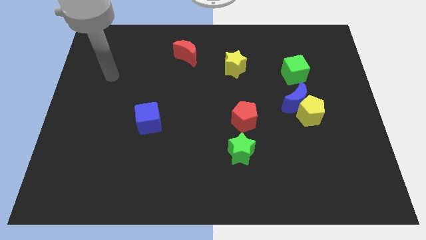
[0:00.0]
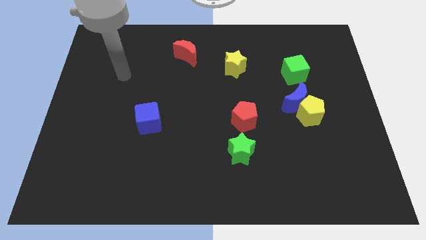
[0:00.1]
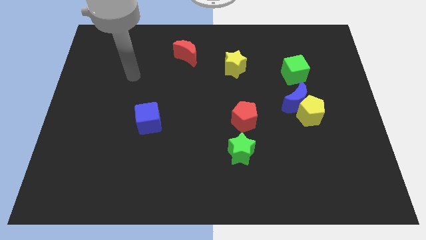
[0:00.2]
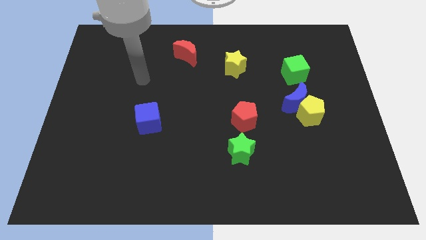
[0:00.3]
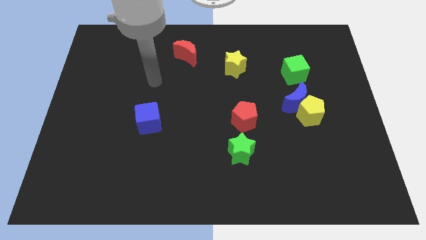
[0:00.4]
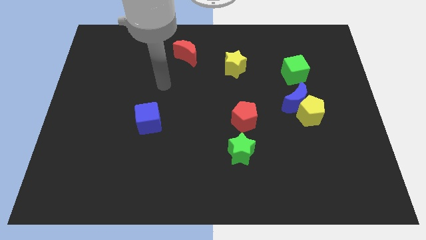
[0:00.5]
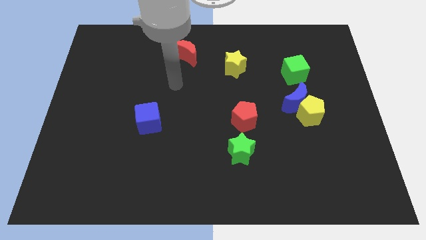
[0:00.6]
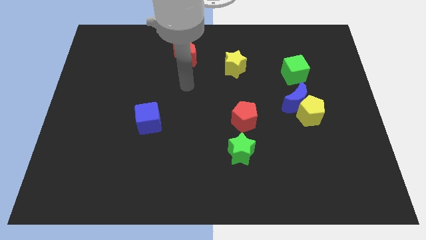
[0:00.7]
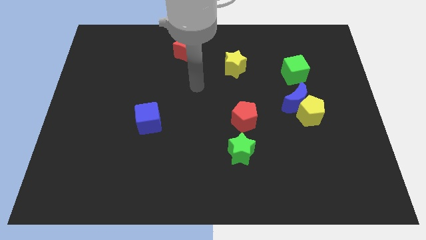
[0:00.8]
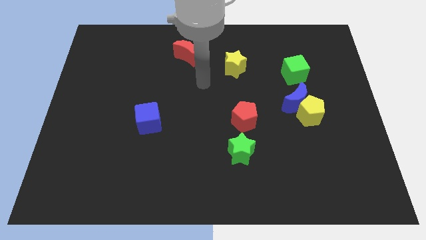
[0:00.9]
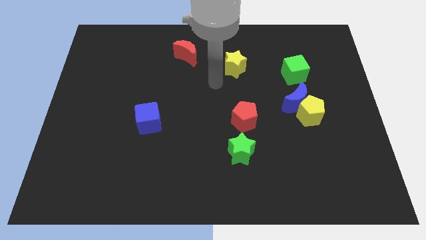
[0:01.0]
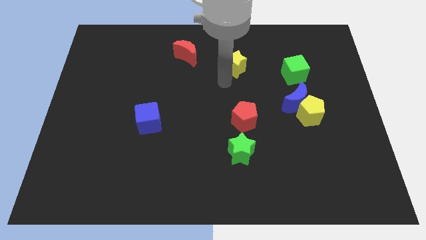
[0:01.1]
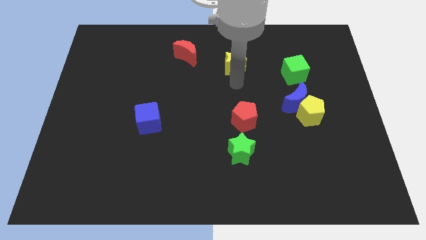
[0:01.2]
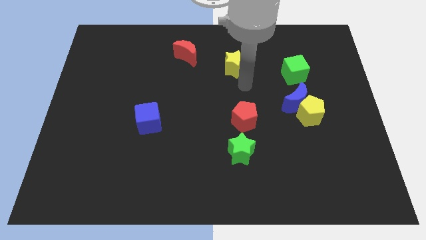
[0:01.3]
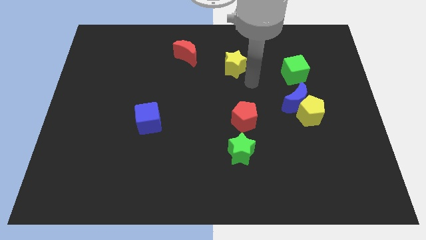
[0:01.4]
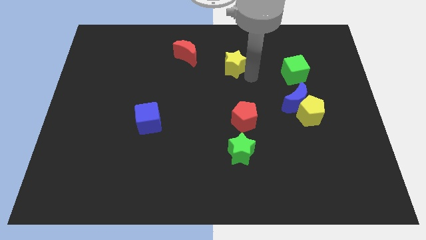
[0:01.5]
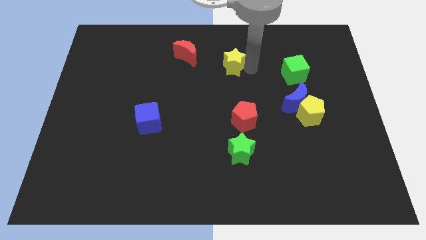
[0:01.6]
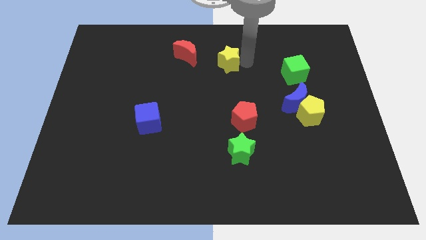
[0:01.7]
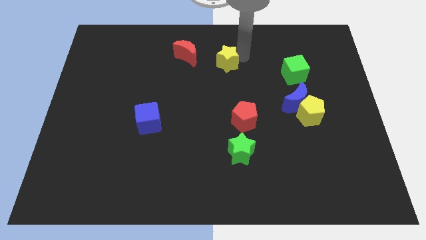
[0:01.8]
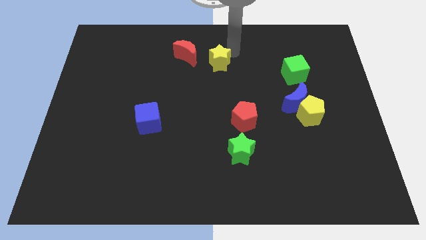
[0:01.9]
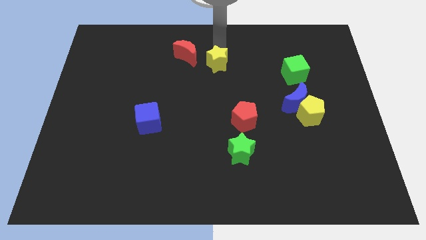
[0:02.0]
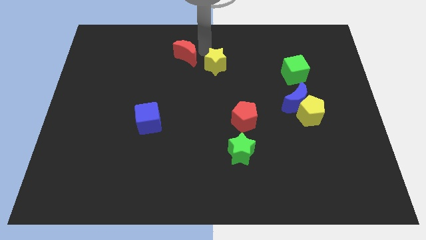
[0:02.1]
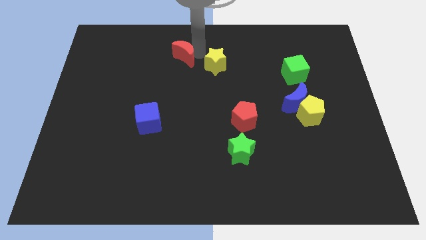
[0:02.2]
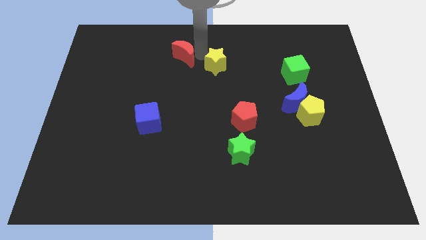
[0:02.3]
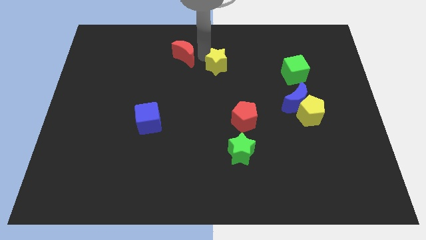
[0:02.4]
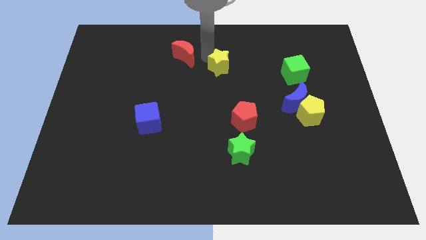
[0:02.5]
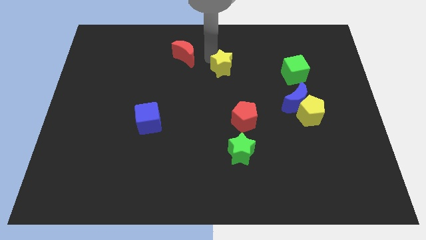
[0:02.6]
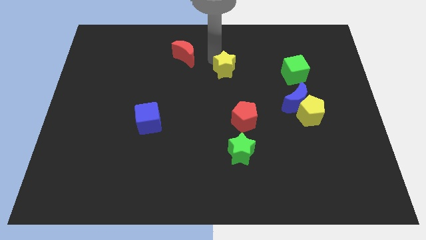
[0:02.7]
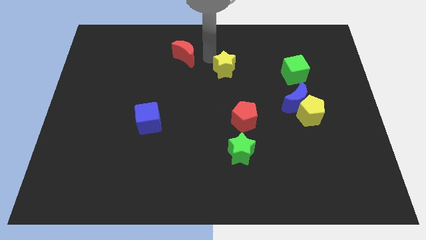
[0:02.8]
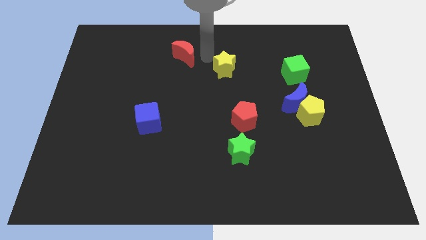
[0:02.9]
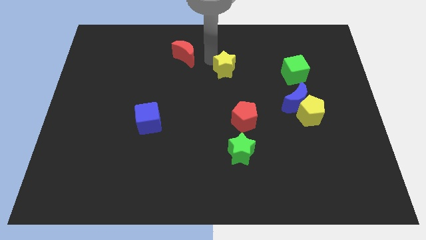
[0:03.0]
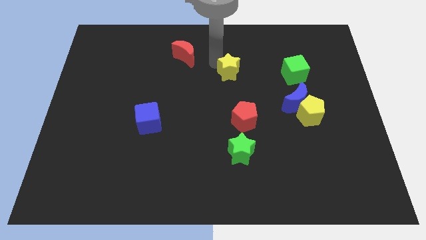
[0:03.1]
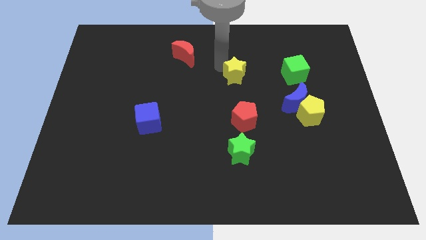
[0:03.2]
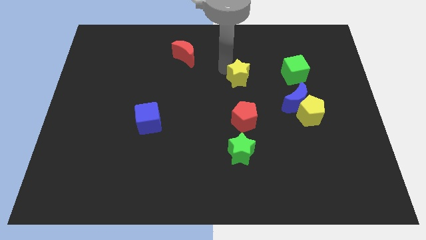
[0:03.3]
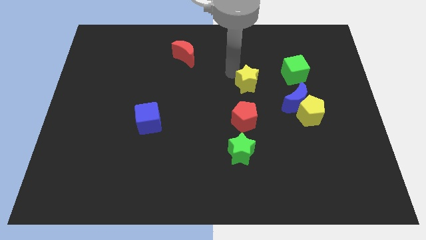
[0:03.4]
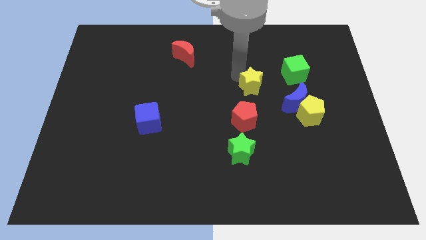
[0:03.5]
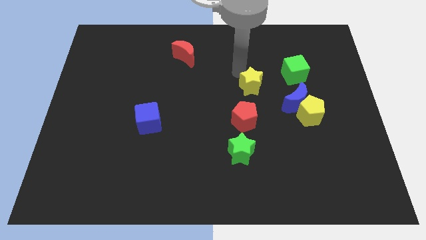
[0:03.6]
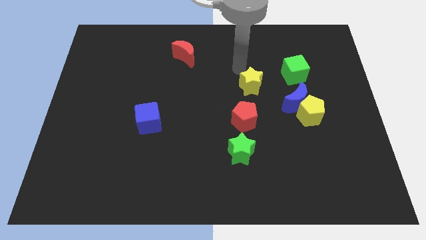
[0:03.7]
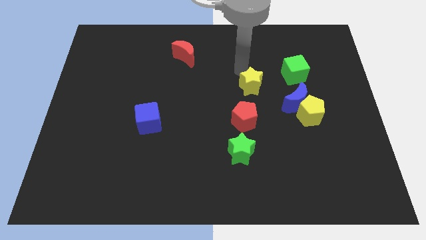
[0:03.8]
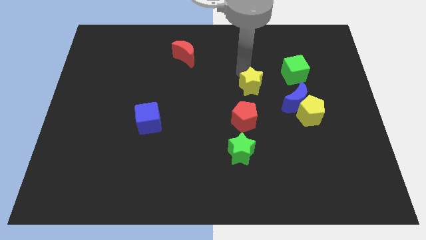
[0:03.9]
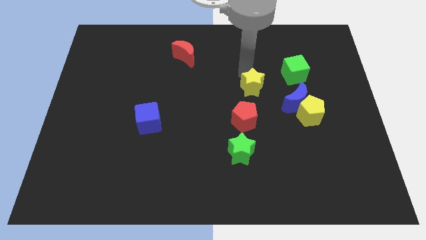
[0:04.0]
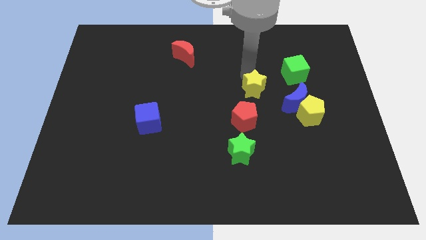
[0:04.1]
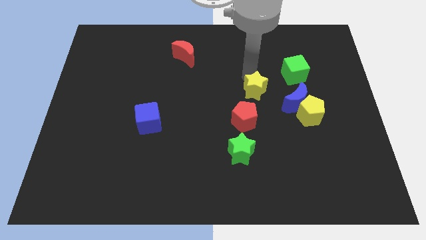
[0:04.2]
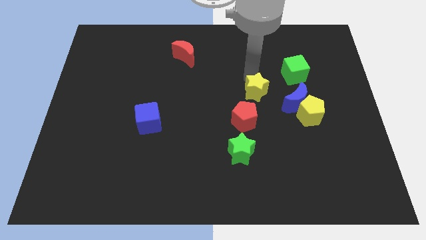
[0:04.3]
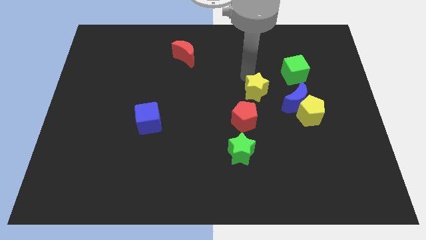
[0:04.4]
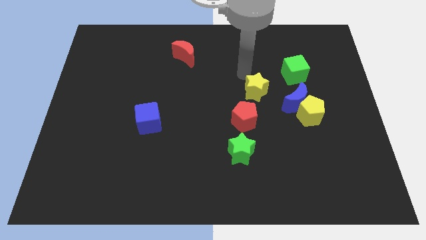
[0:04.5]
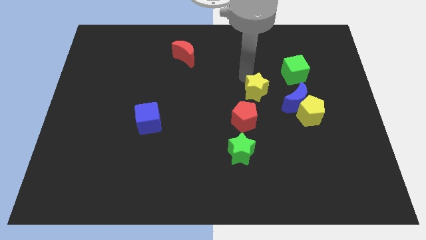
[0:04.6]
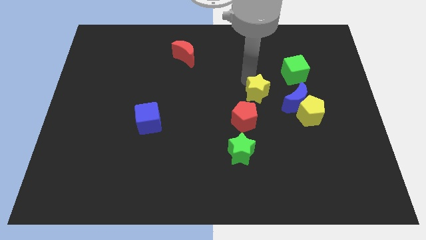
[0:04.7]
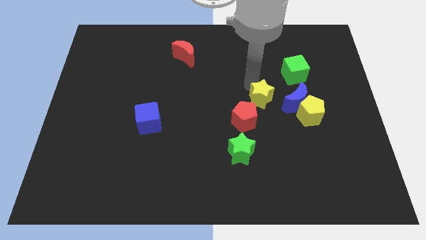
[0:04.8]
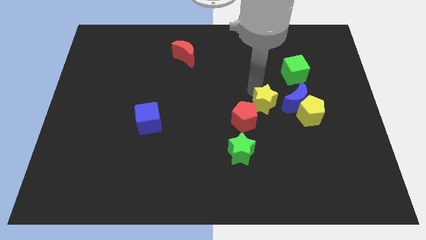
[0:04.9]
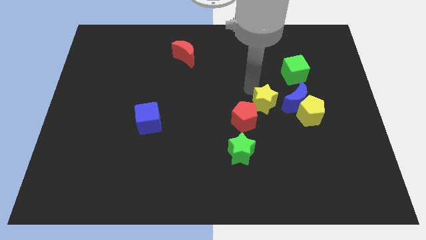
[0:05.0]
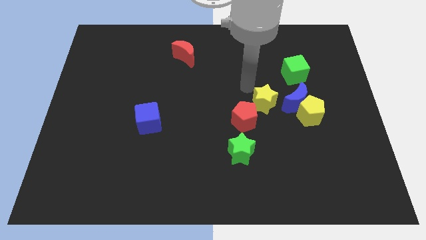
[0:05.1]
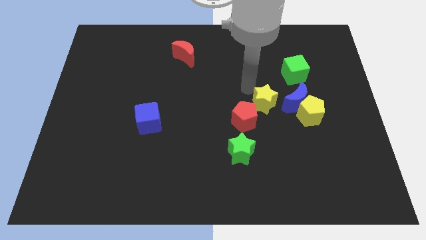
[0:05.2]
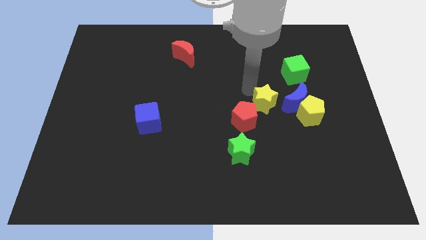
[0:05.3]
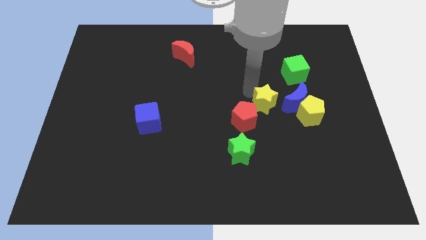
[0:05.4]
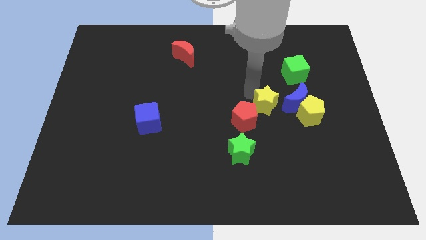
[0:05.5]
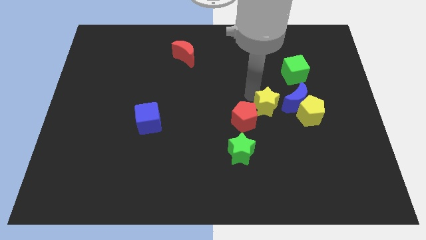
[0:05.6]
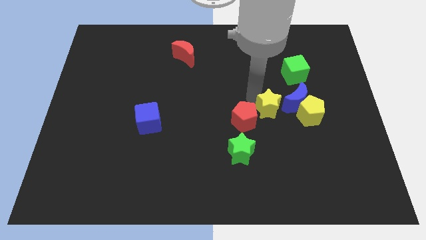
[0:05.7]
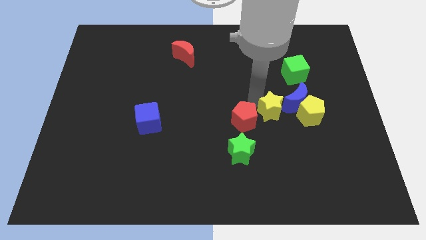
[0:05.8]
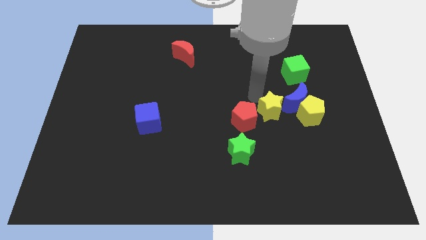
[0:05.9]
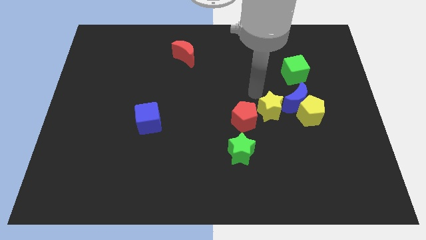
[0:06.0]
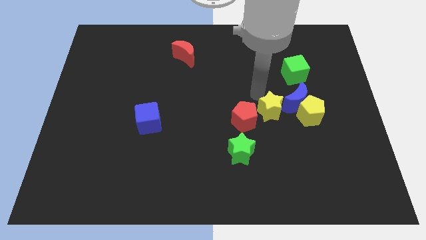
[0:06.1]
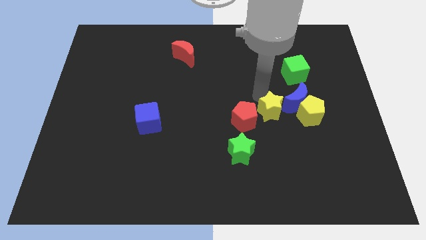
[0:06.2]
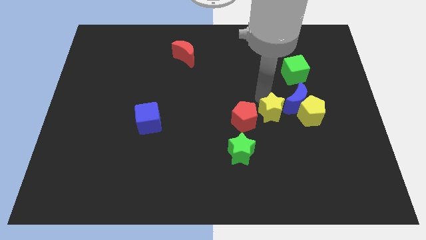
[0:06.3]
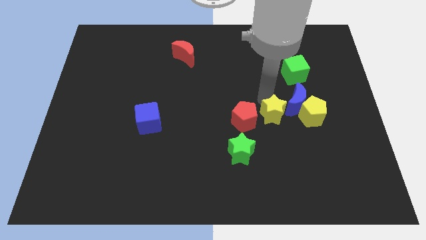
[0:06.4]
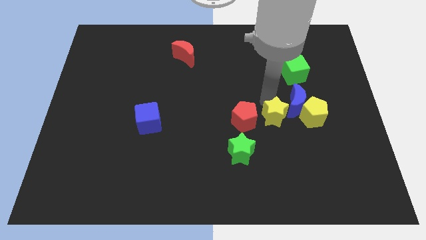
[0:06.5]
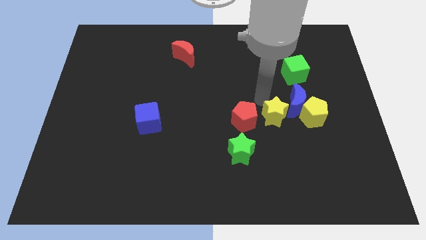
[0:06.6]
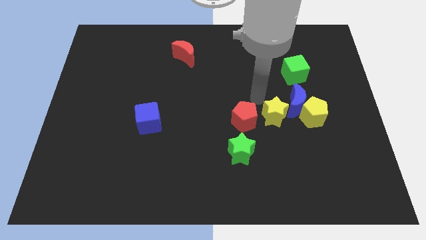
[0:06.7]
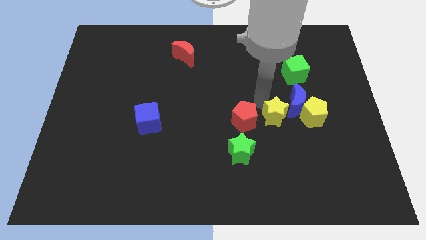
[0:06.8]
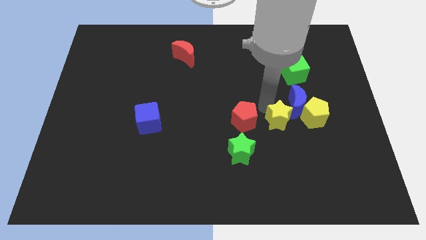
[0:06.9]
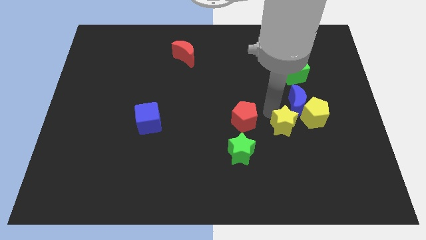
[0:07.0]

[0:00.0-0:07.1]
put the yellow star to the bottom left of the yellow pentagon

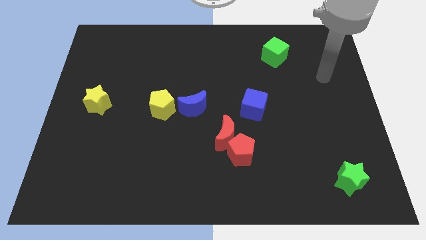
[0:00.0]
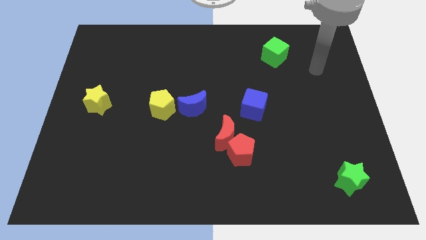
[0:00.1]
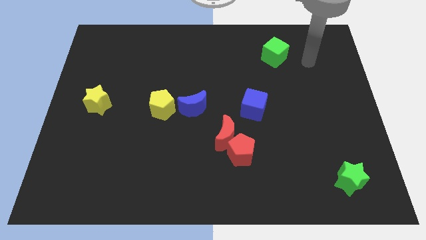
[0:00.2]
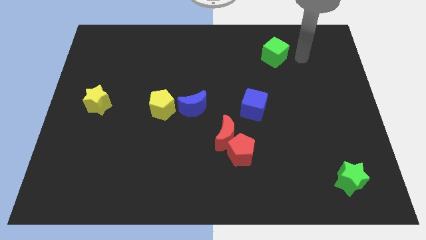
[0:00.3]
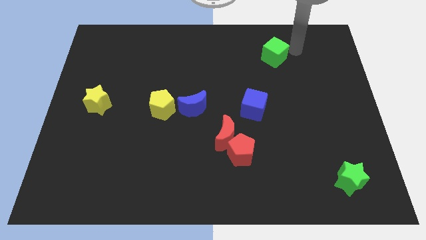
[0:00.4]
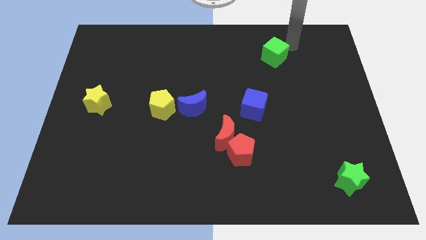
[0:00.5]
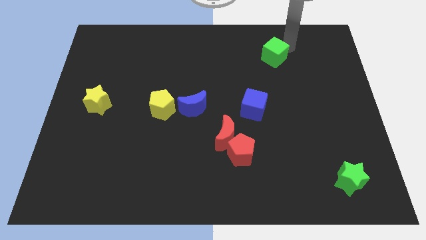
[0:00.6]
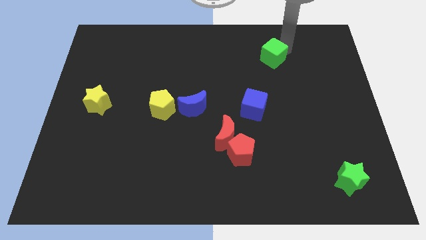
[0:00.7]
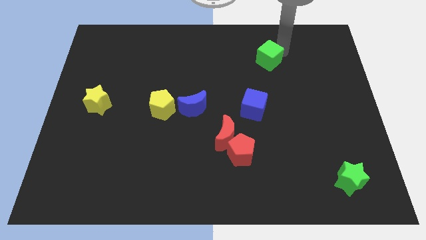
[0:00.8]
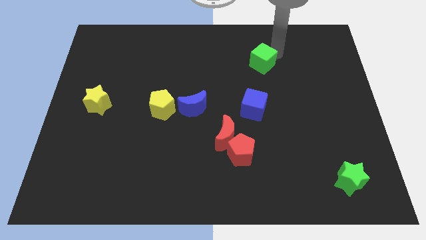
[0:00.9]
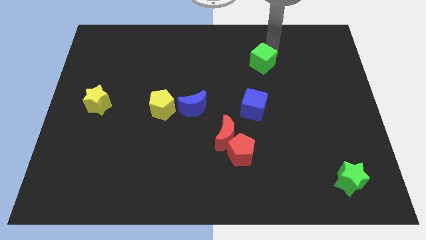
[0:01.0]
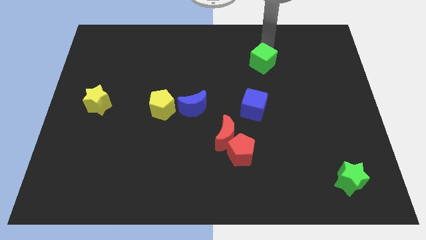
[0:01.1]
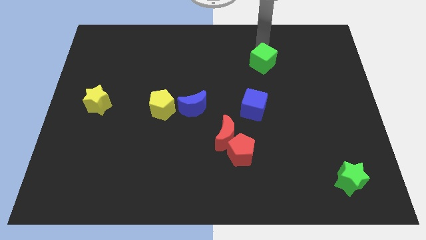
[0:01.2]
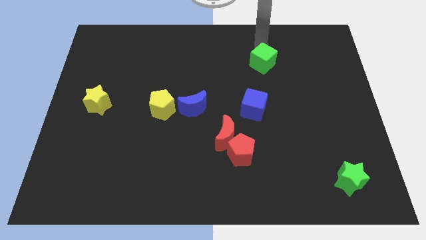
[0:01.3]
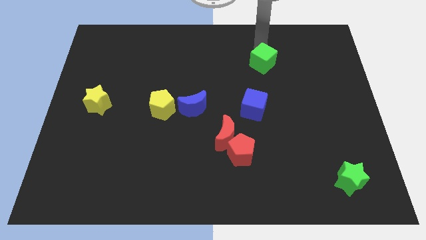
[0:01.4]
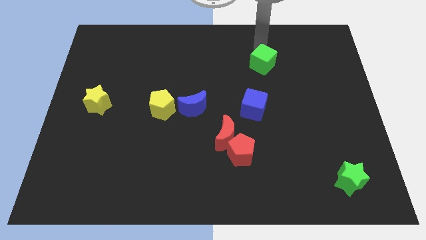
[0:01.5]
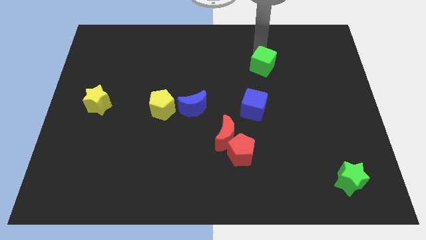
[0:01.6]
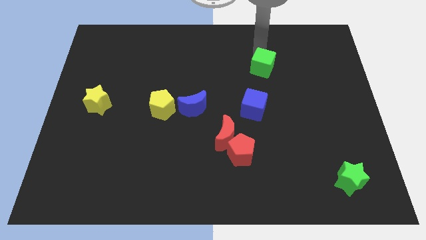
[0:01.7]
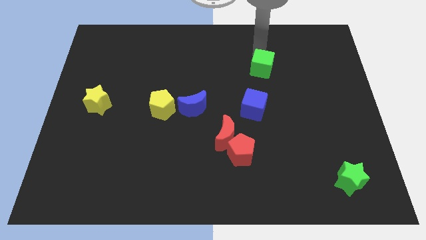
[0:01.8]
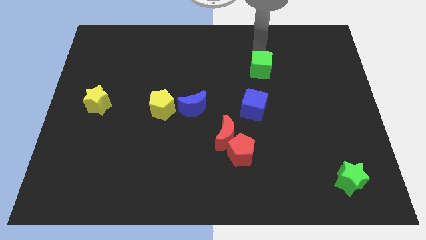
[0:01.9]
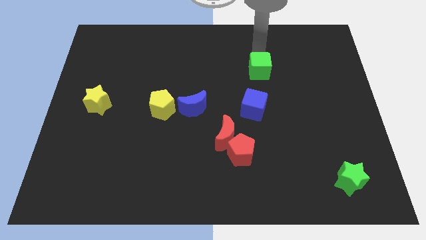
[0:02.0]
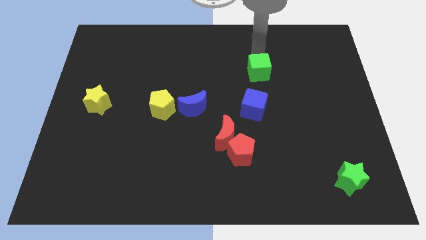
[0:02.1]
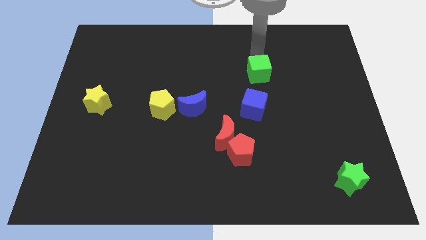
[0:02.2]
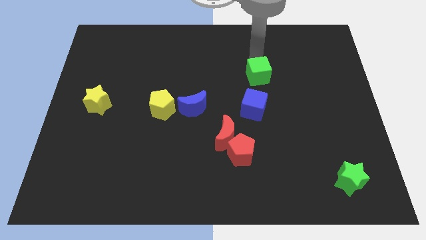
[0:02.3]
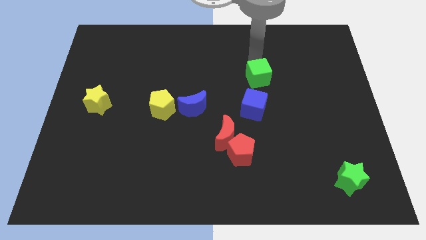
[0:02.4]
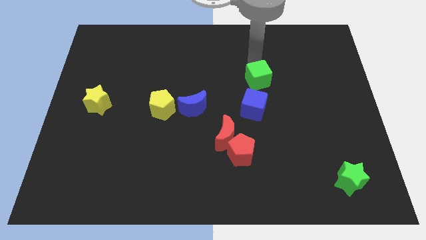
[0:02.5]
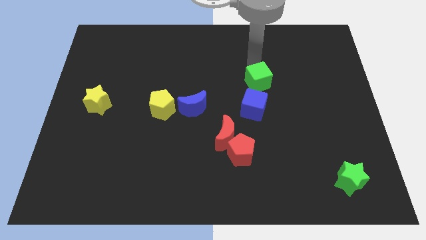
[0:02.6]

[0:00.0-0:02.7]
slide the green cube to the top right of the blue cube
